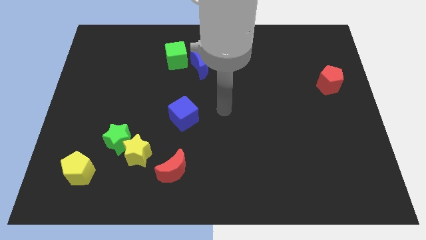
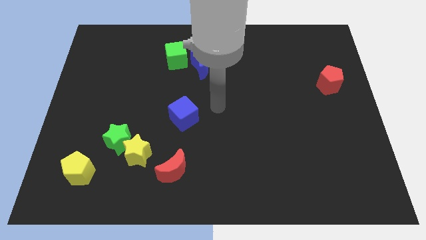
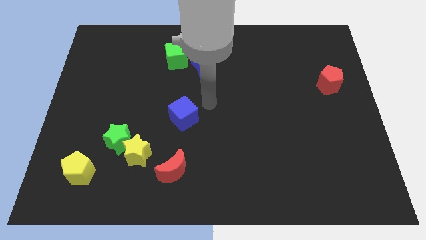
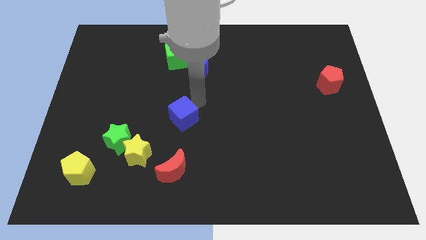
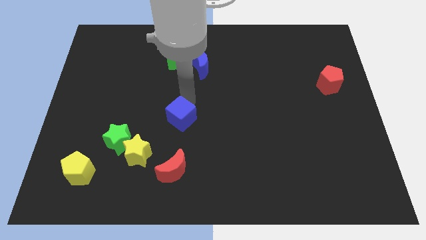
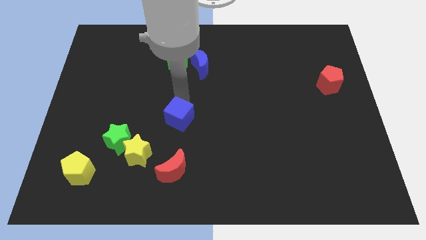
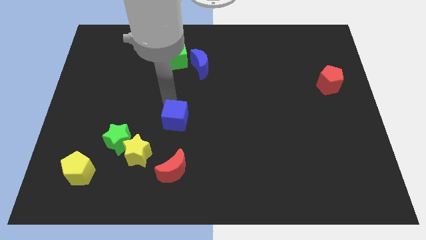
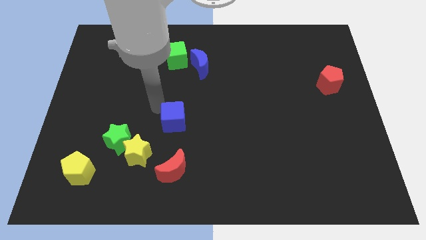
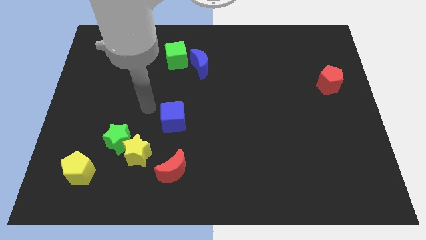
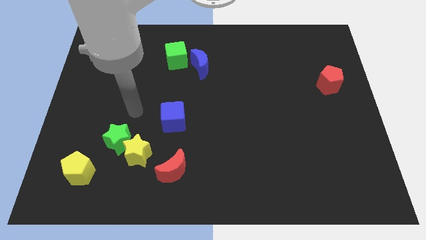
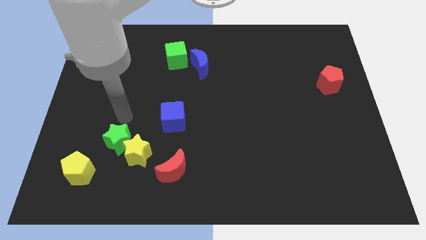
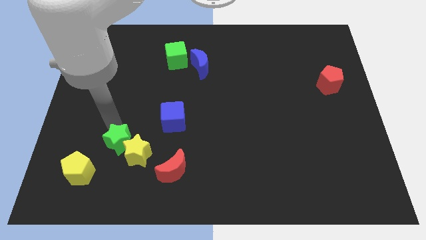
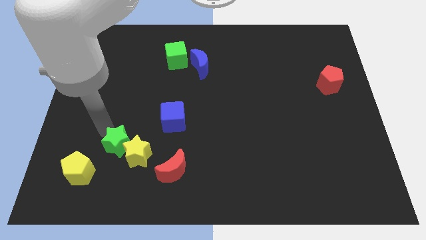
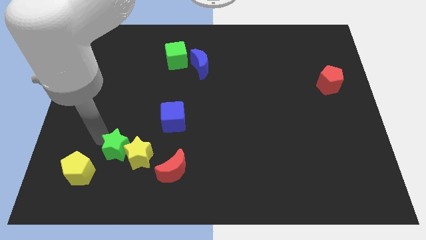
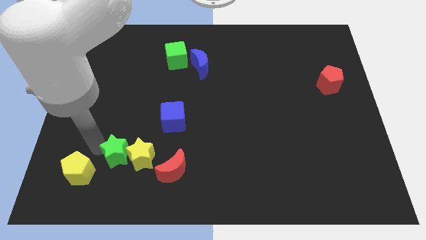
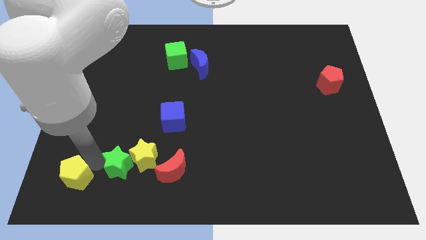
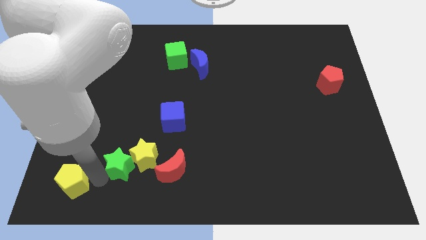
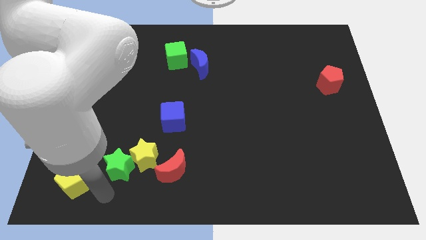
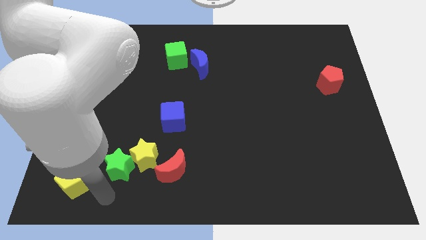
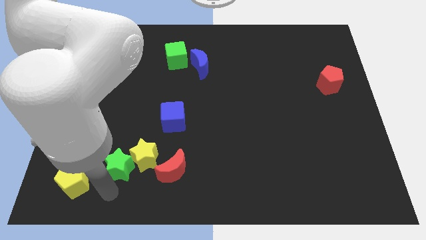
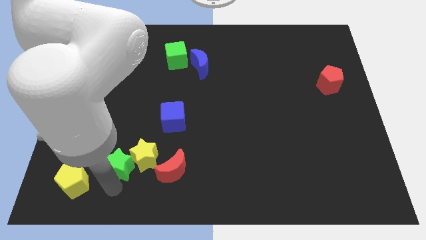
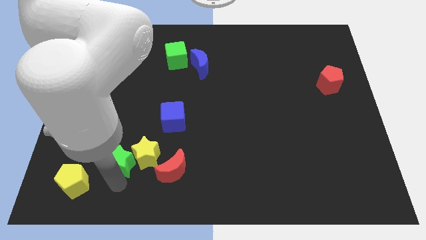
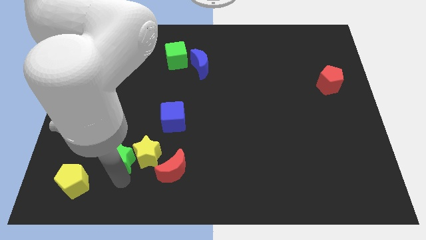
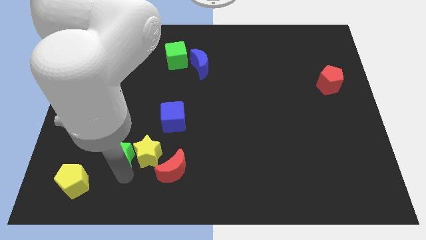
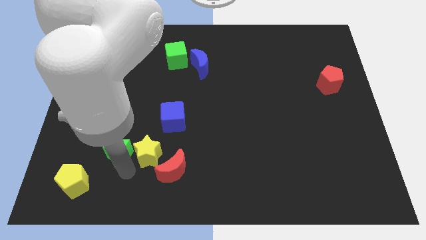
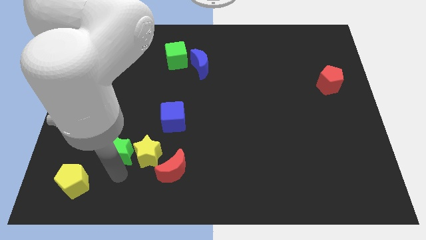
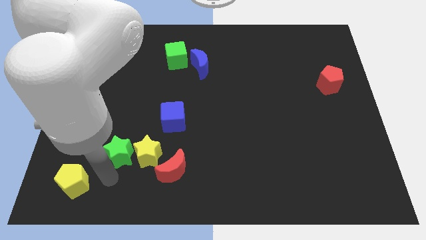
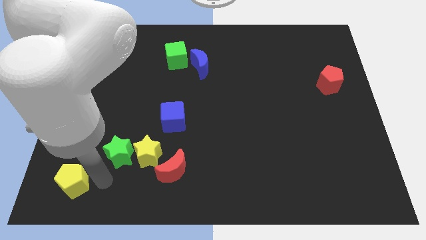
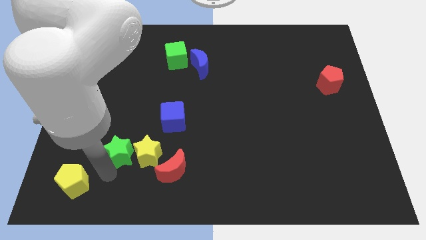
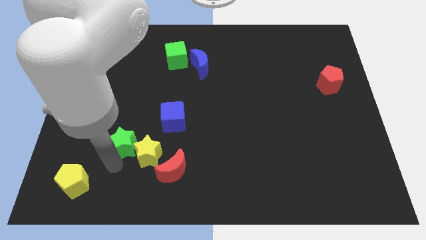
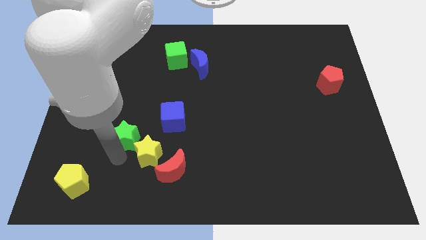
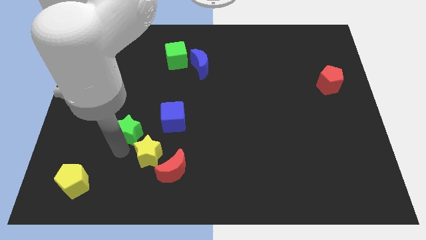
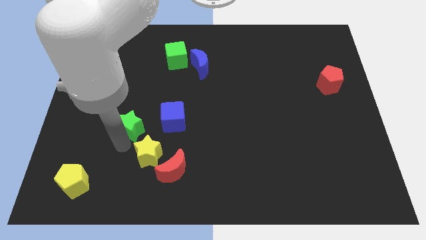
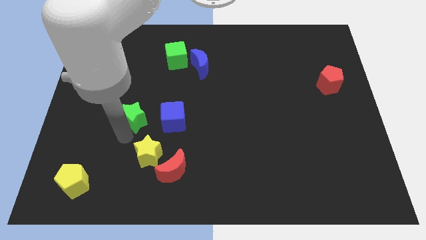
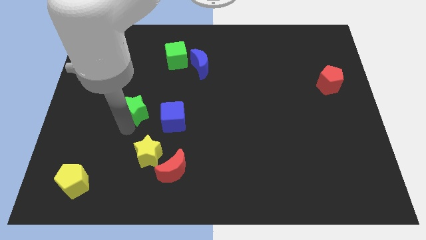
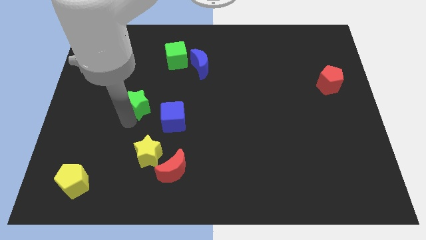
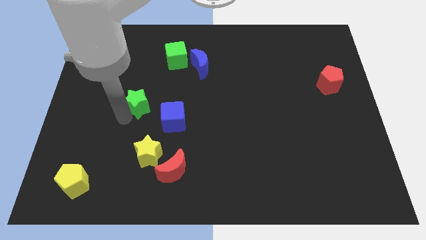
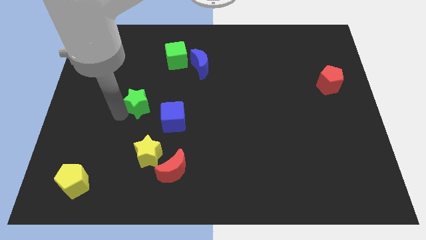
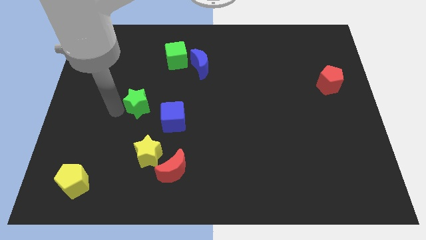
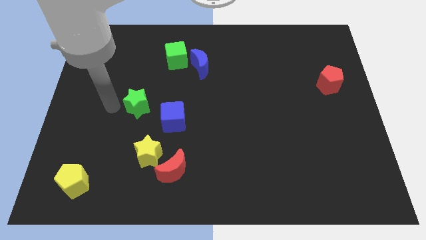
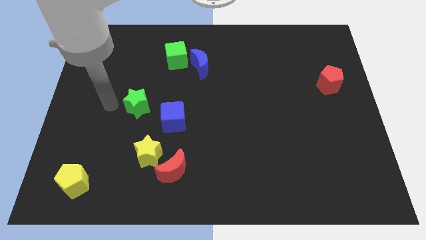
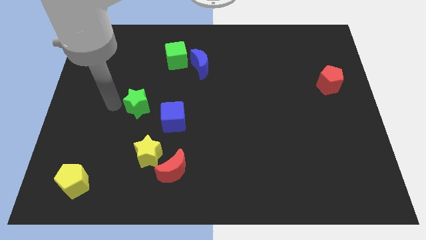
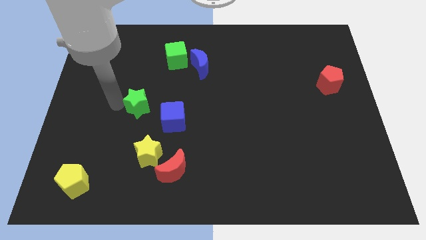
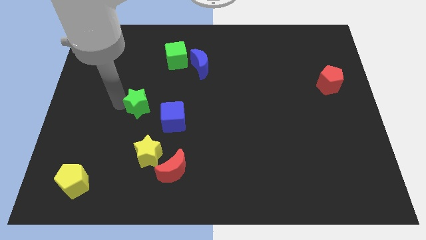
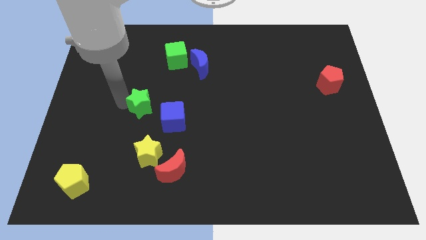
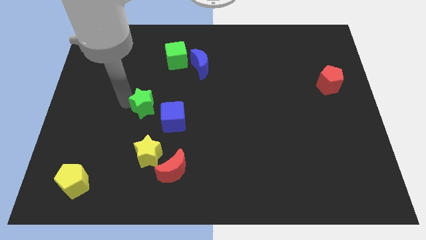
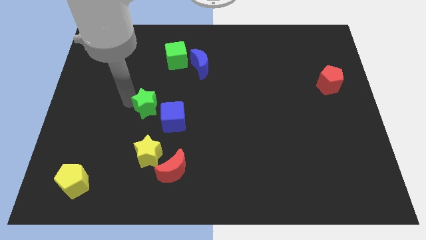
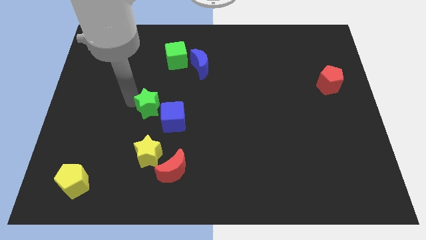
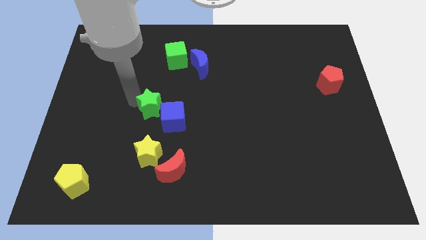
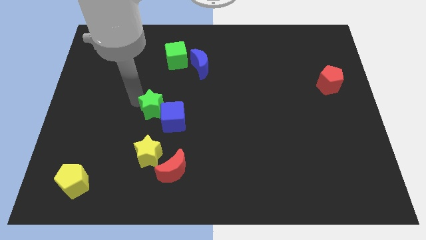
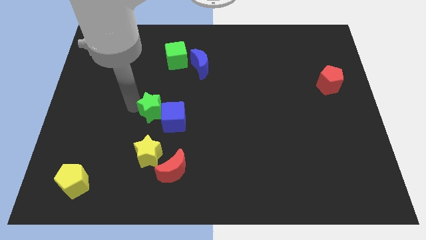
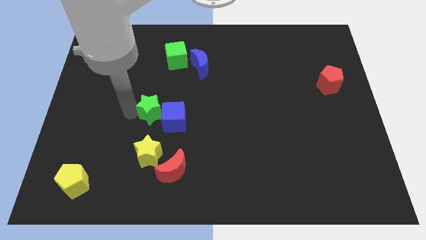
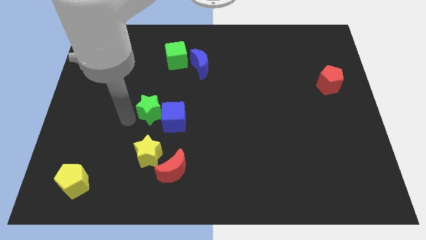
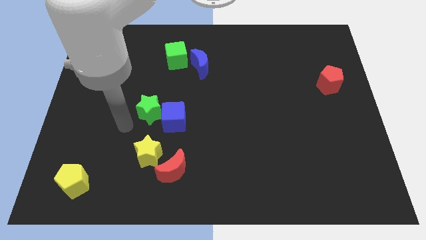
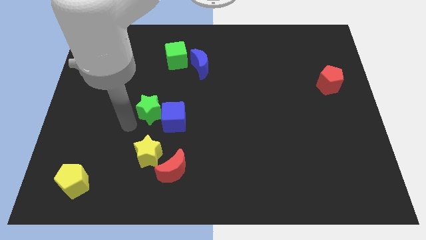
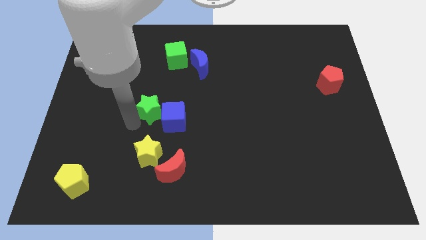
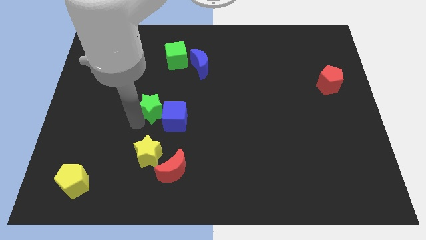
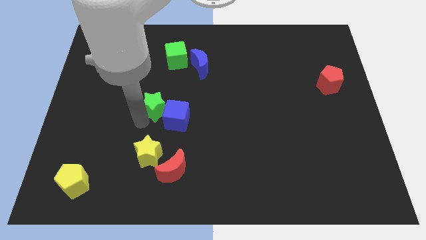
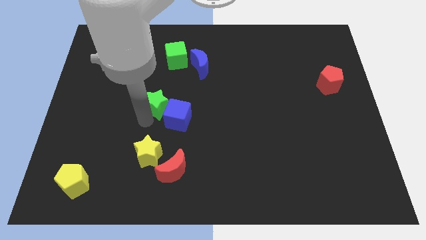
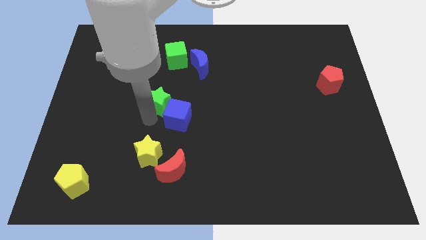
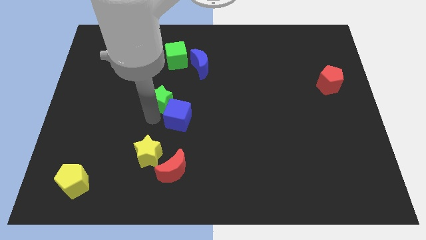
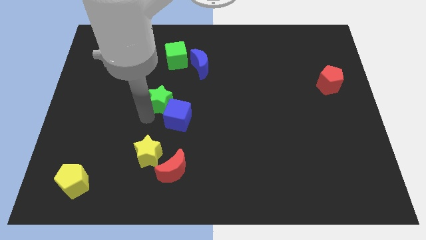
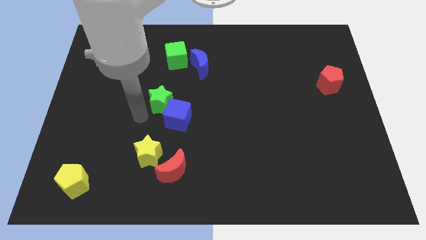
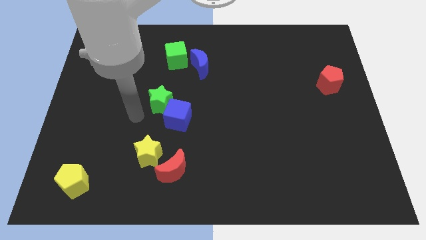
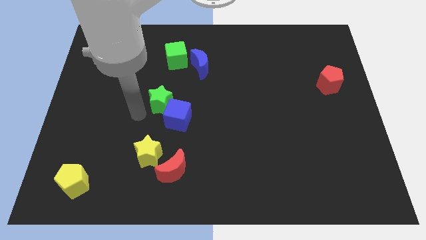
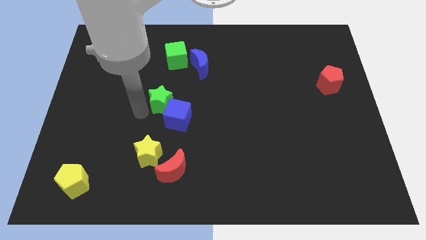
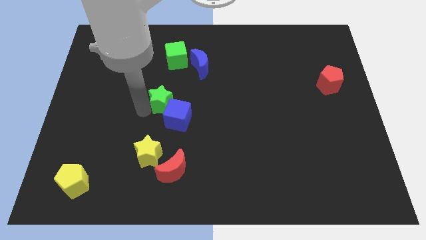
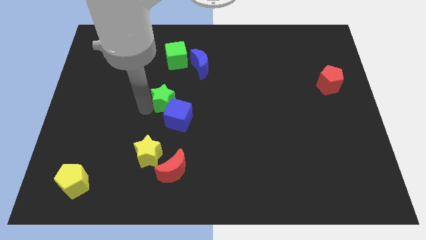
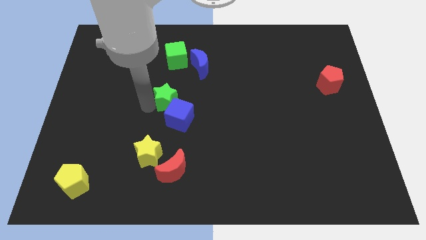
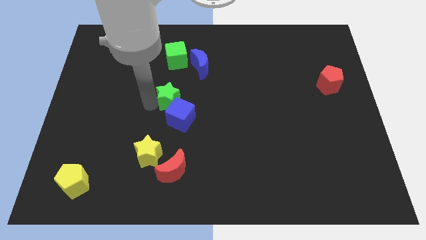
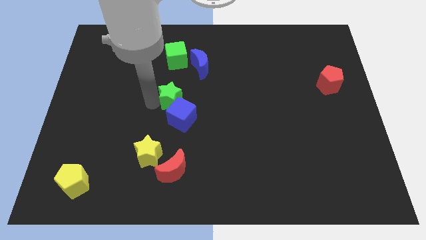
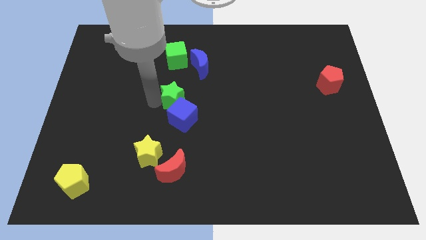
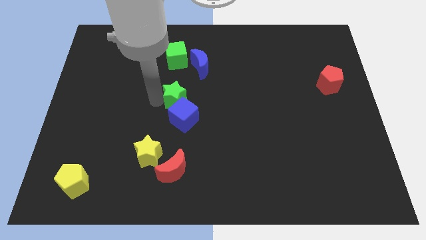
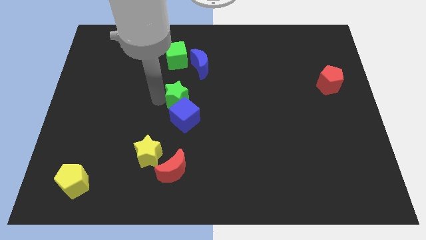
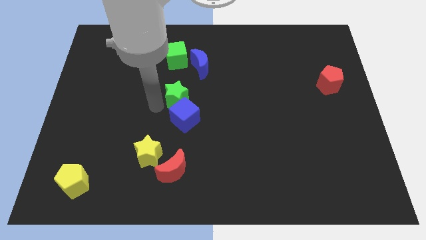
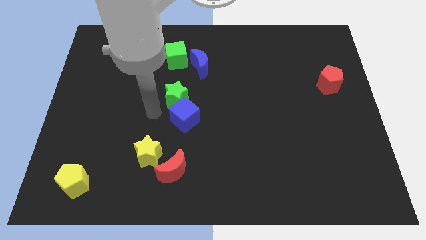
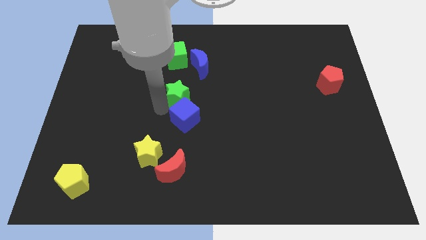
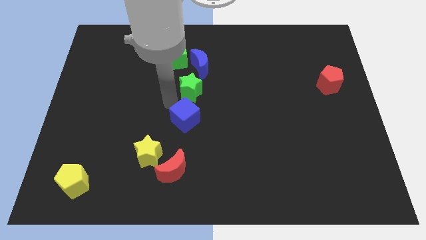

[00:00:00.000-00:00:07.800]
move the green star upwards and then right
